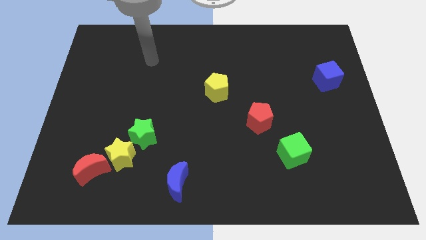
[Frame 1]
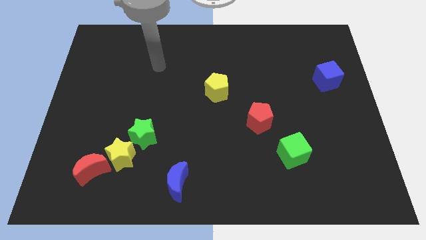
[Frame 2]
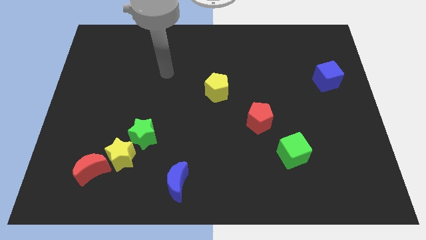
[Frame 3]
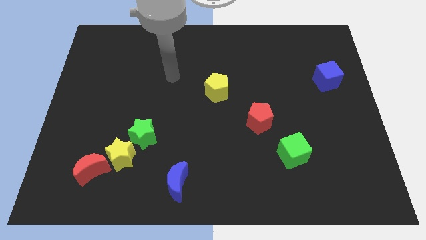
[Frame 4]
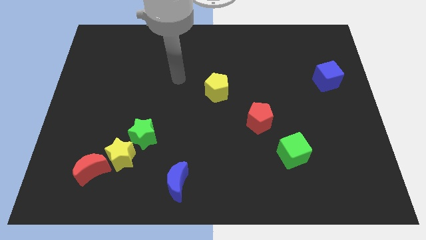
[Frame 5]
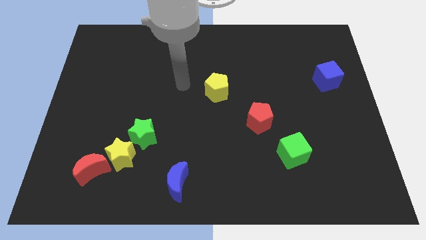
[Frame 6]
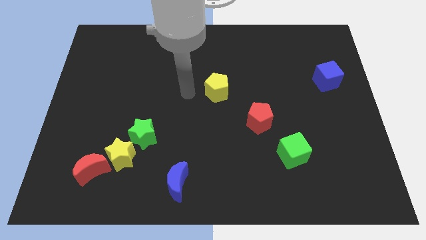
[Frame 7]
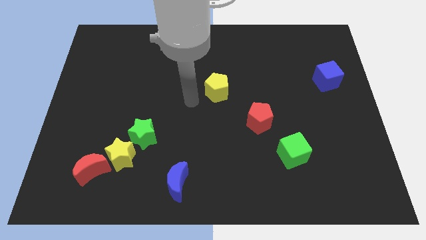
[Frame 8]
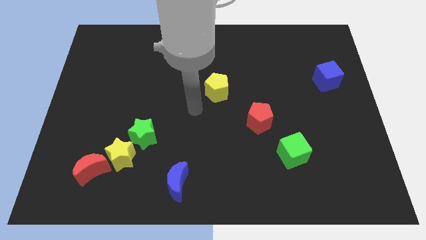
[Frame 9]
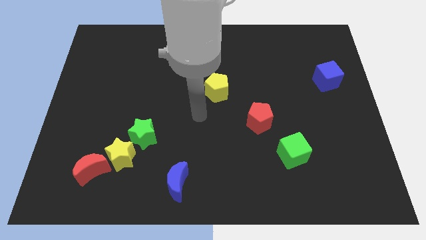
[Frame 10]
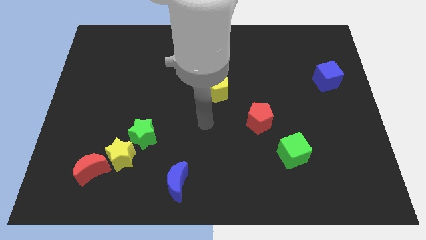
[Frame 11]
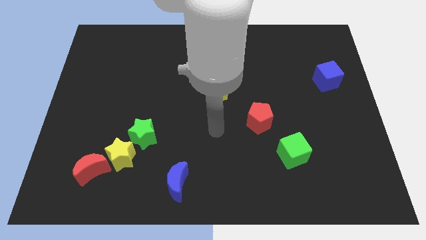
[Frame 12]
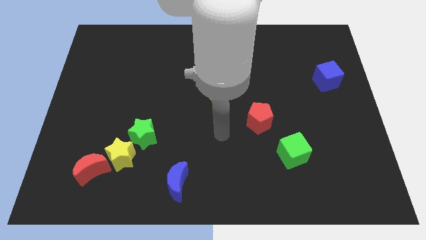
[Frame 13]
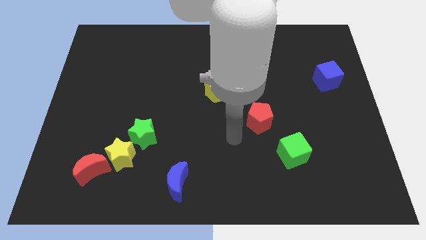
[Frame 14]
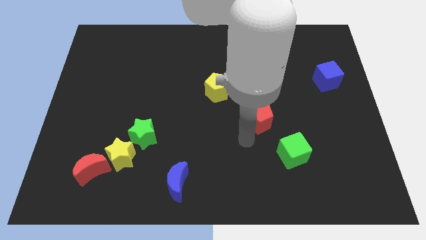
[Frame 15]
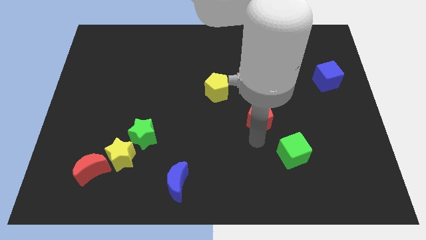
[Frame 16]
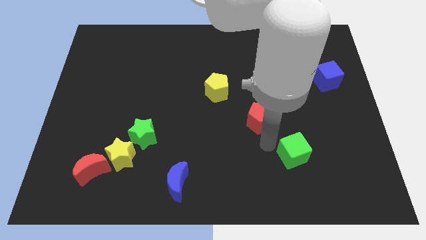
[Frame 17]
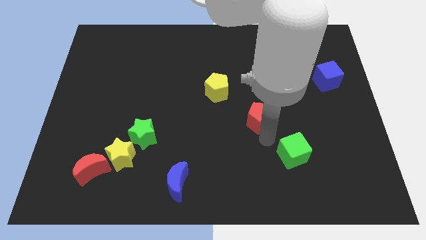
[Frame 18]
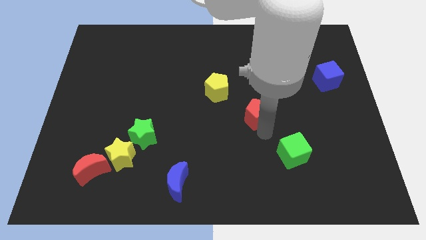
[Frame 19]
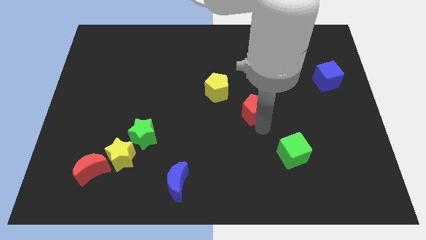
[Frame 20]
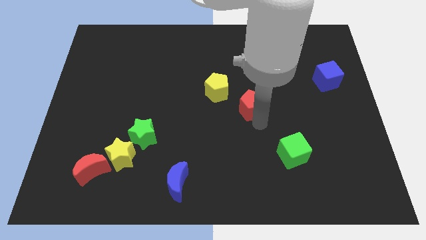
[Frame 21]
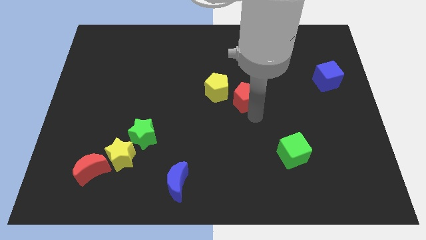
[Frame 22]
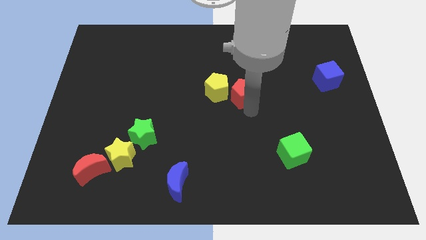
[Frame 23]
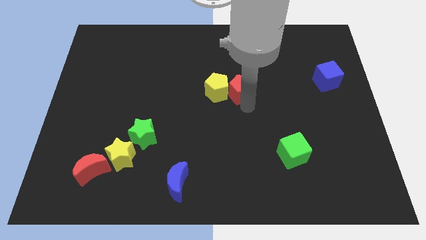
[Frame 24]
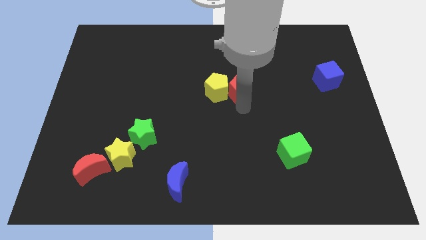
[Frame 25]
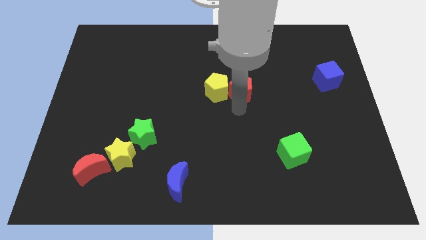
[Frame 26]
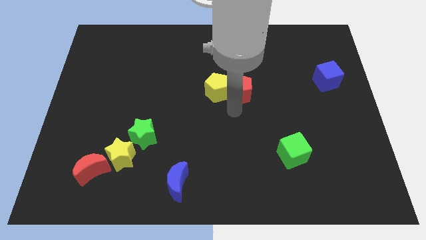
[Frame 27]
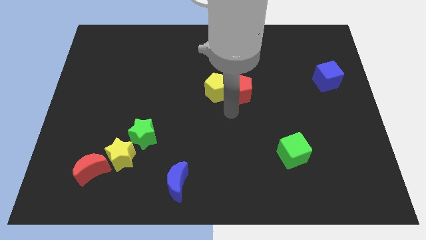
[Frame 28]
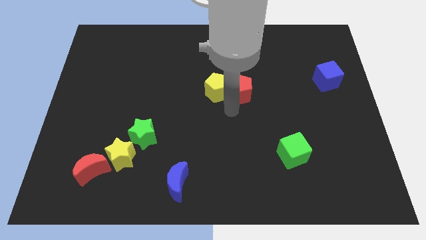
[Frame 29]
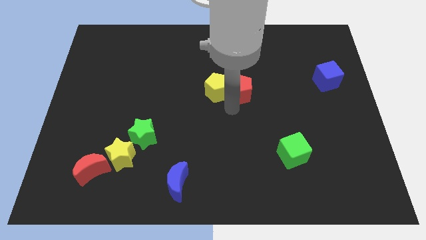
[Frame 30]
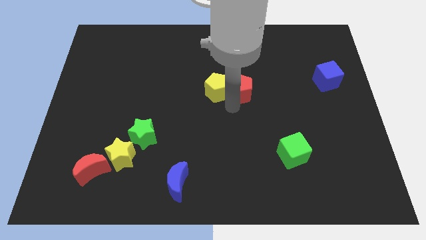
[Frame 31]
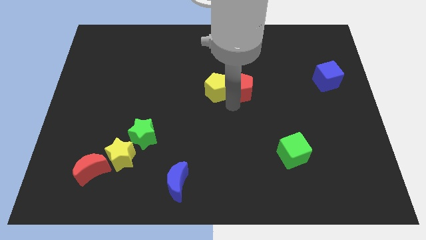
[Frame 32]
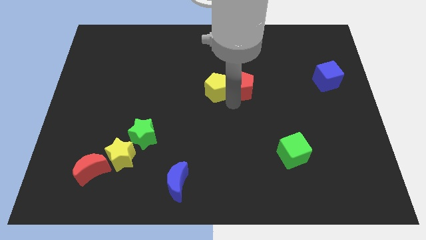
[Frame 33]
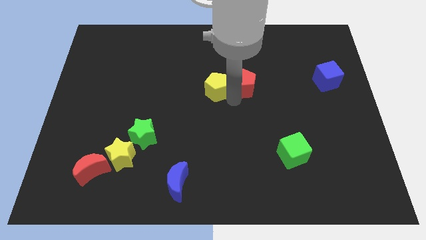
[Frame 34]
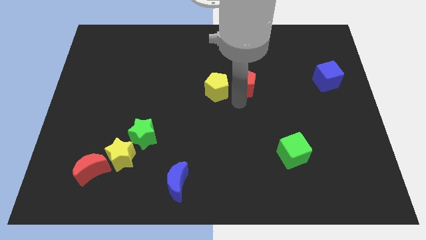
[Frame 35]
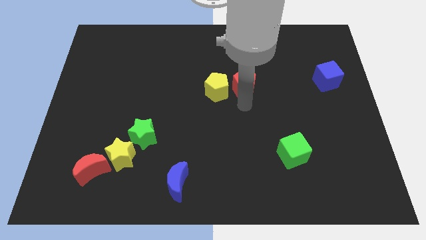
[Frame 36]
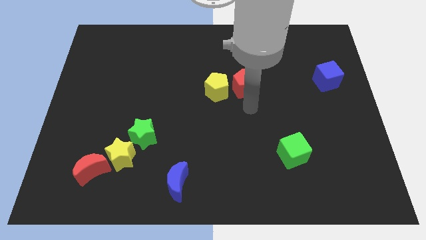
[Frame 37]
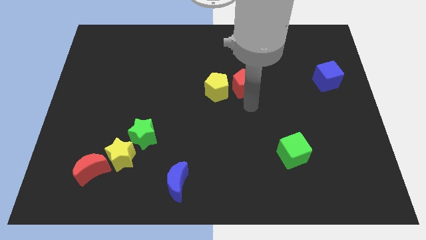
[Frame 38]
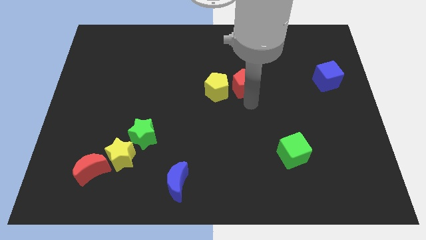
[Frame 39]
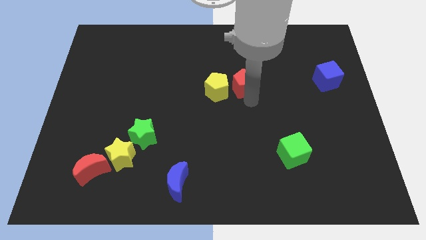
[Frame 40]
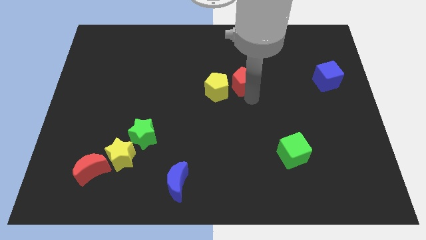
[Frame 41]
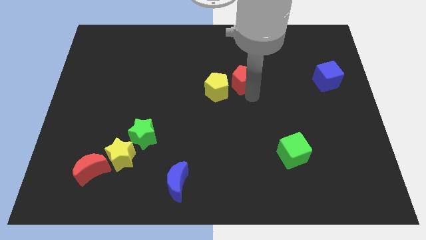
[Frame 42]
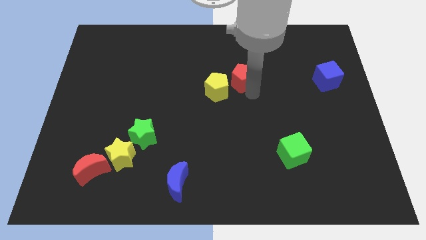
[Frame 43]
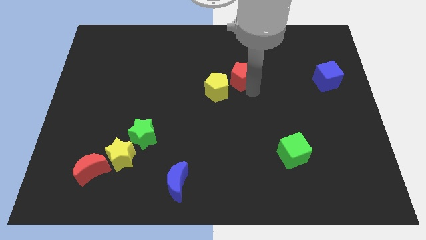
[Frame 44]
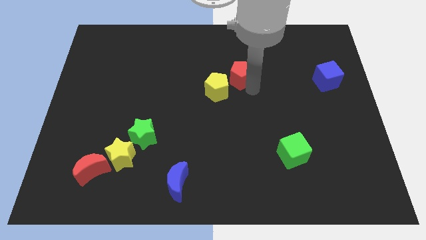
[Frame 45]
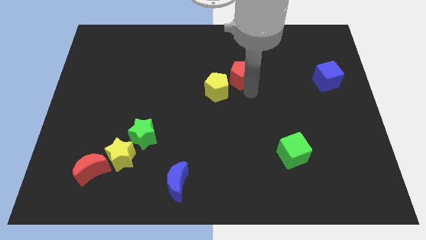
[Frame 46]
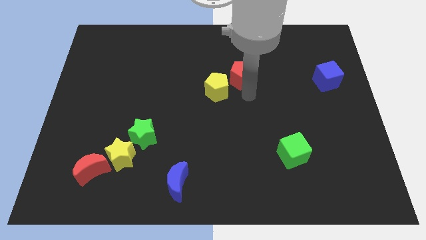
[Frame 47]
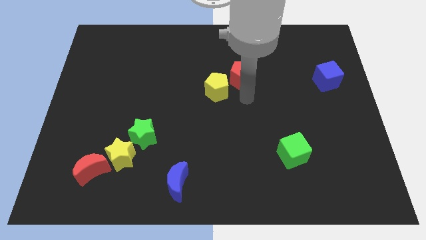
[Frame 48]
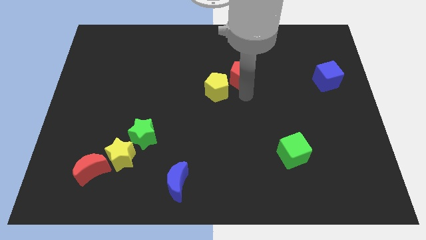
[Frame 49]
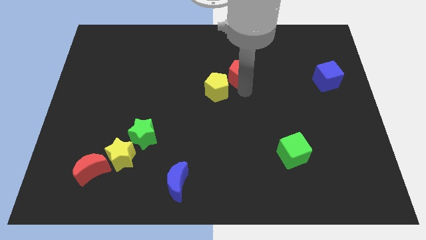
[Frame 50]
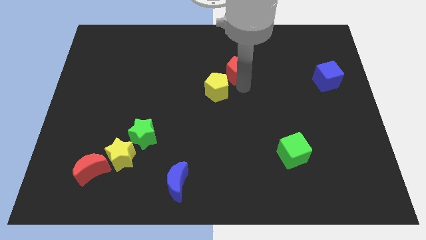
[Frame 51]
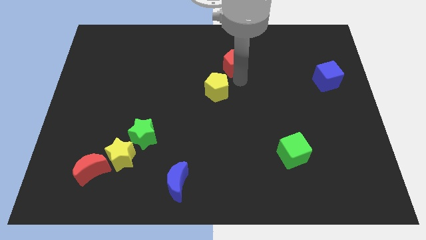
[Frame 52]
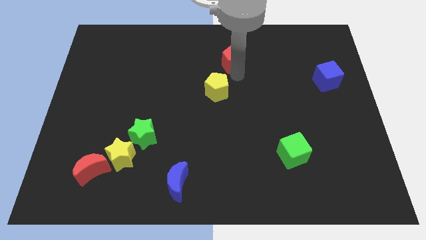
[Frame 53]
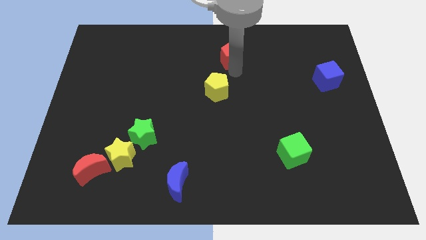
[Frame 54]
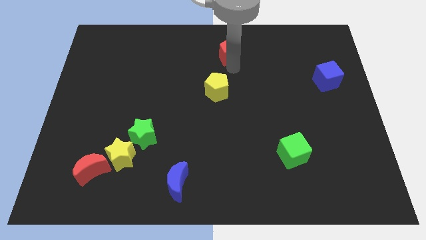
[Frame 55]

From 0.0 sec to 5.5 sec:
slide the red pentagon to the top side

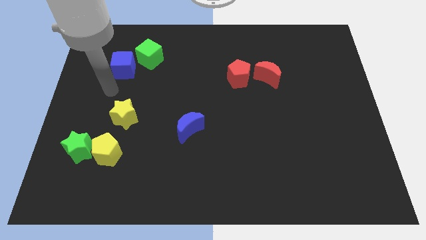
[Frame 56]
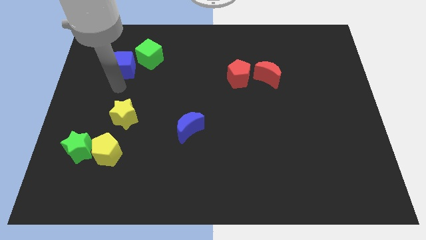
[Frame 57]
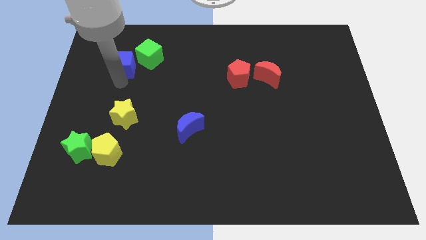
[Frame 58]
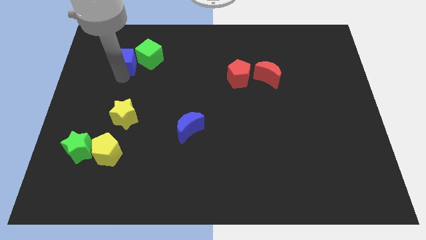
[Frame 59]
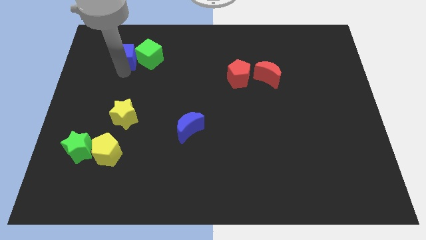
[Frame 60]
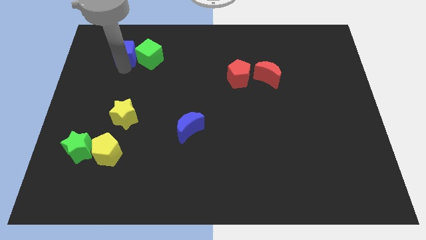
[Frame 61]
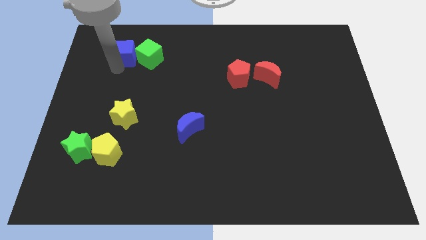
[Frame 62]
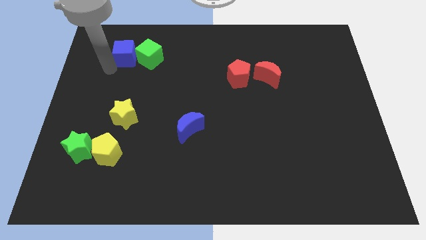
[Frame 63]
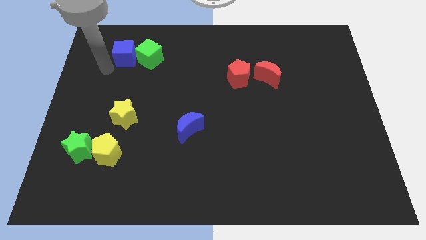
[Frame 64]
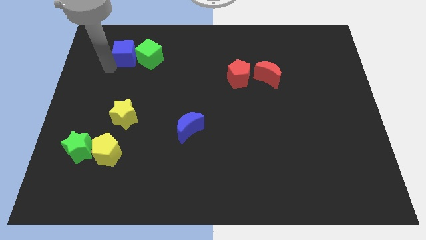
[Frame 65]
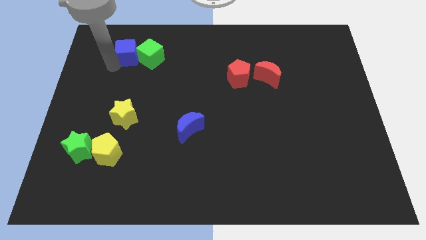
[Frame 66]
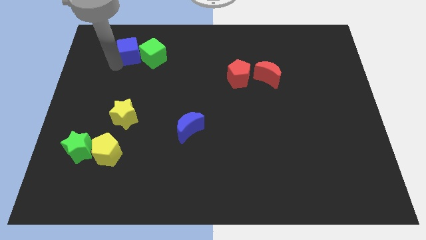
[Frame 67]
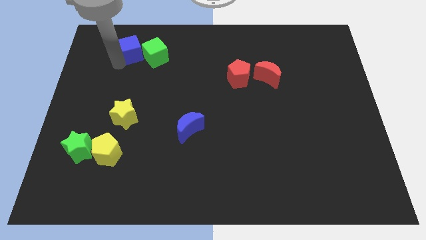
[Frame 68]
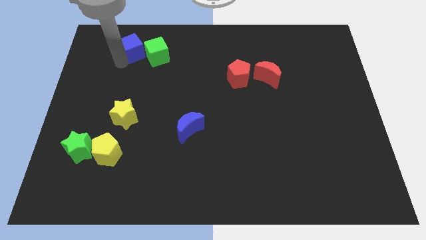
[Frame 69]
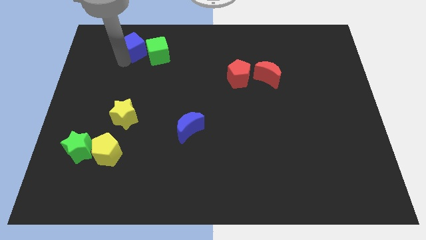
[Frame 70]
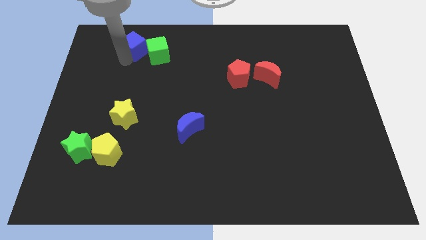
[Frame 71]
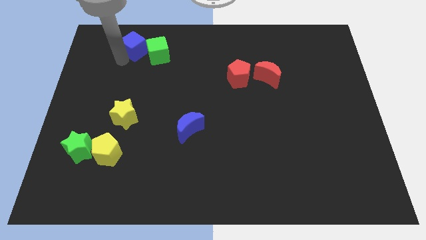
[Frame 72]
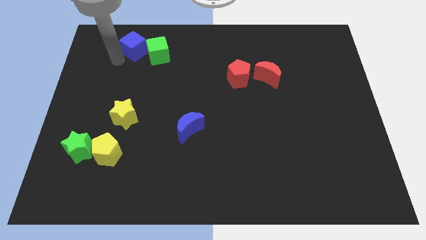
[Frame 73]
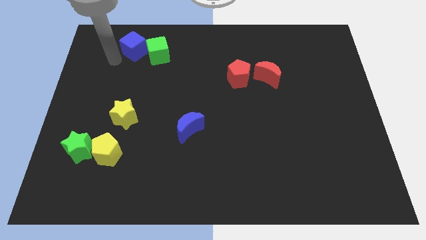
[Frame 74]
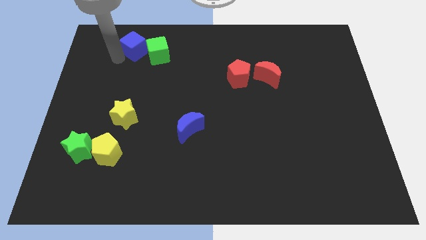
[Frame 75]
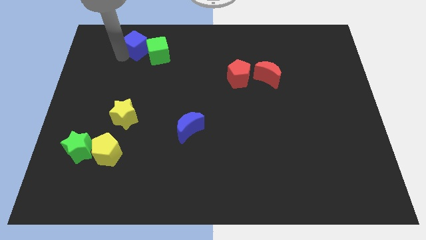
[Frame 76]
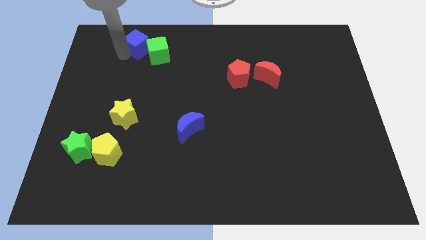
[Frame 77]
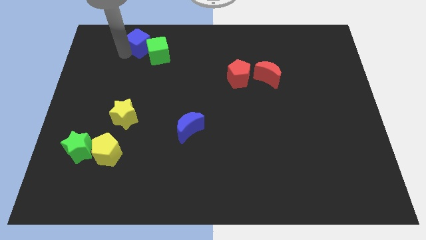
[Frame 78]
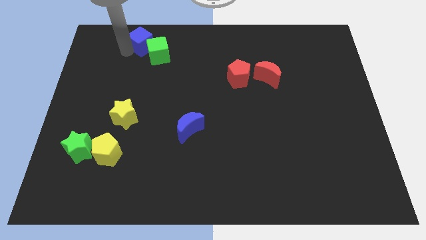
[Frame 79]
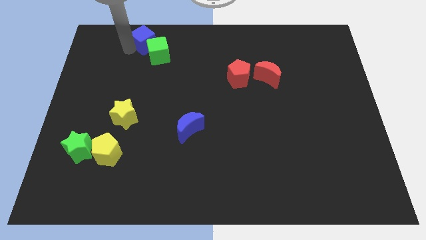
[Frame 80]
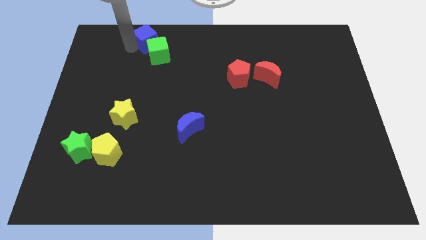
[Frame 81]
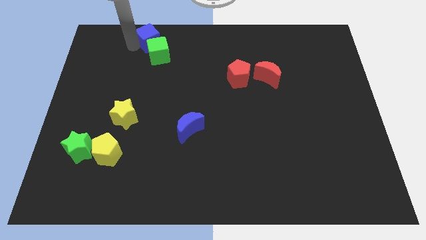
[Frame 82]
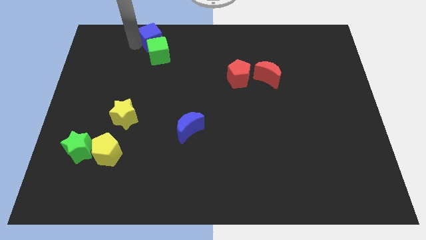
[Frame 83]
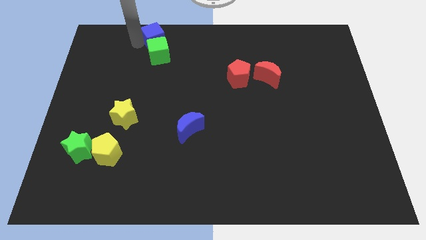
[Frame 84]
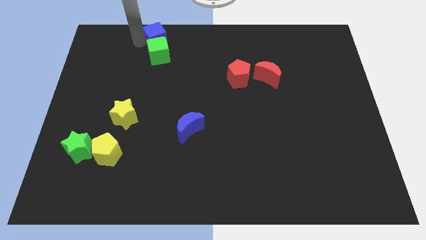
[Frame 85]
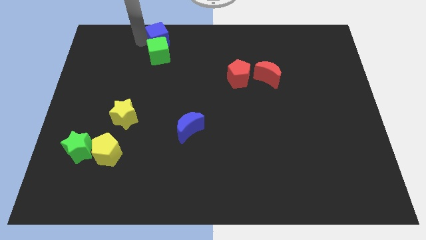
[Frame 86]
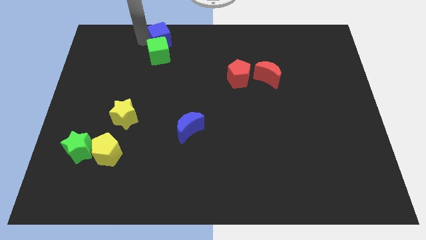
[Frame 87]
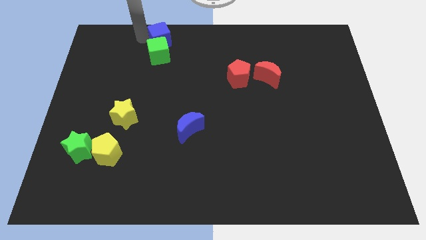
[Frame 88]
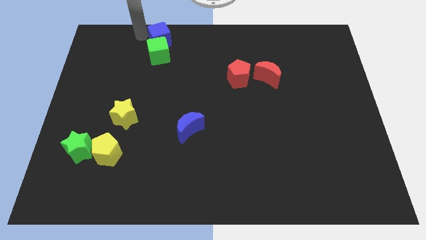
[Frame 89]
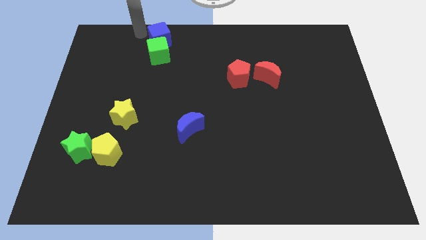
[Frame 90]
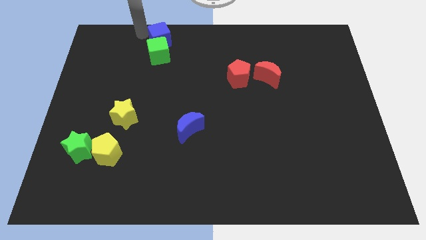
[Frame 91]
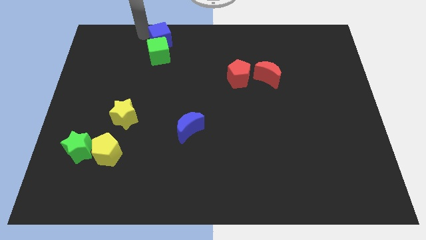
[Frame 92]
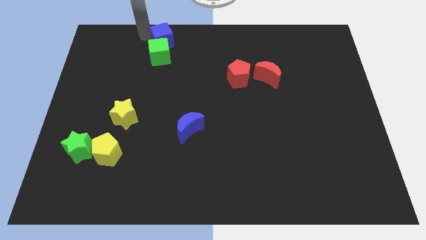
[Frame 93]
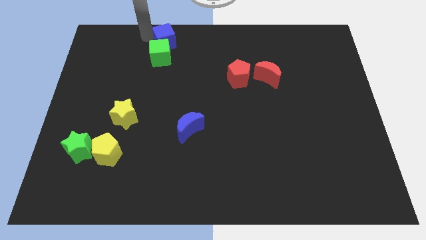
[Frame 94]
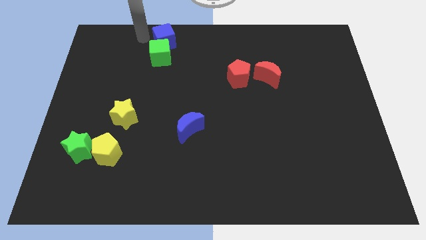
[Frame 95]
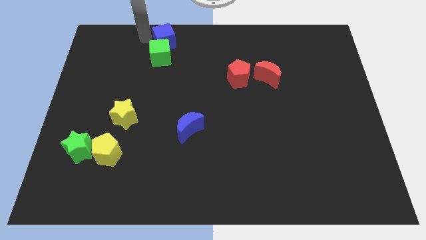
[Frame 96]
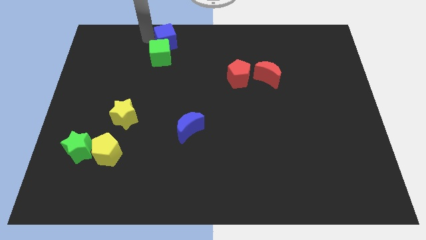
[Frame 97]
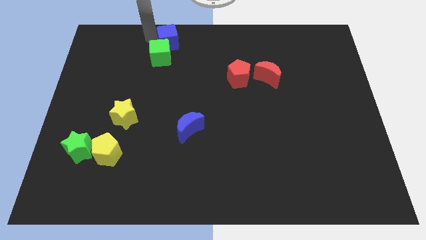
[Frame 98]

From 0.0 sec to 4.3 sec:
move the blue cube to the towards your base
